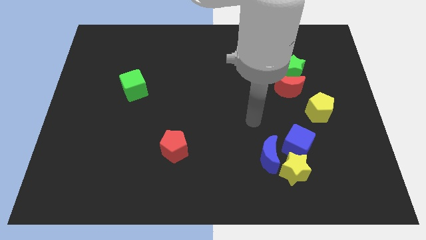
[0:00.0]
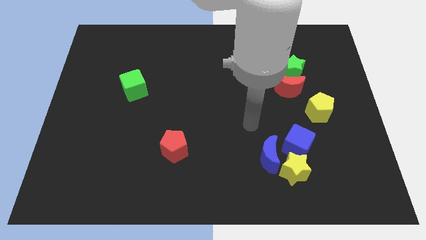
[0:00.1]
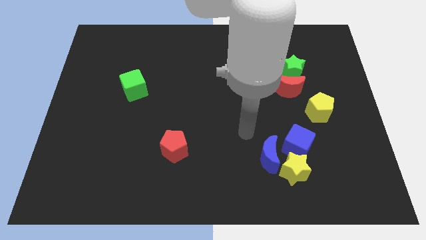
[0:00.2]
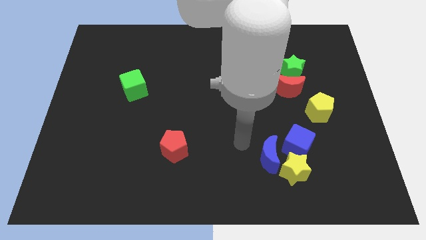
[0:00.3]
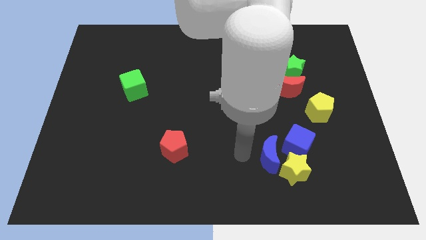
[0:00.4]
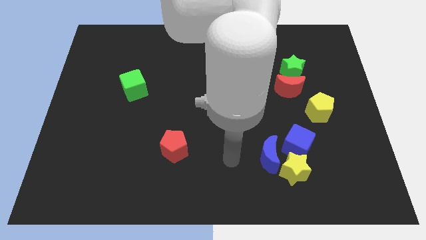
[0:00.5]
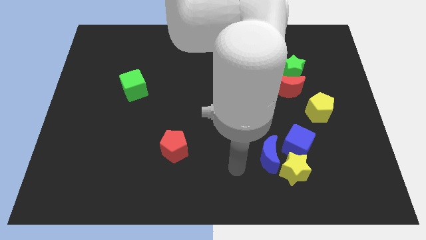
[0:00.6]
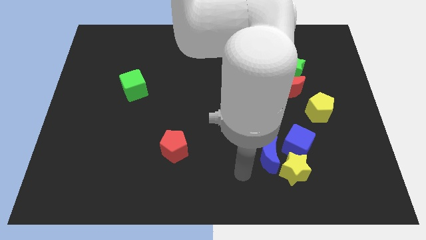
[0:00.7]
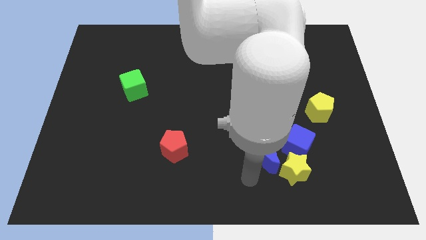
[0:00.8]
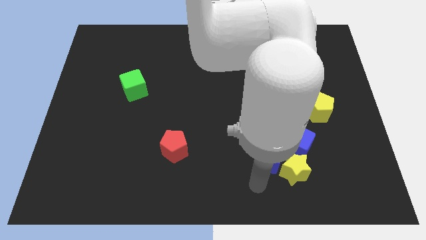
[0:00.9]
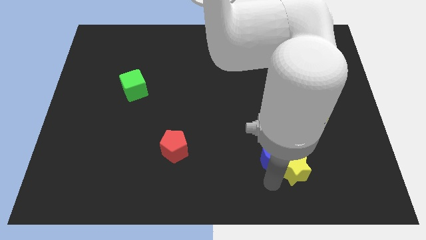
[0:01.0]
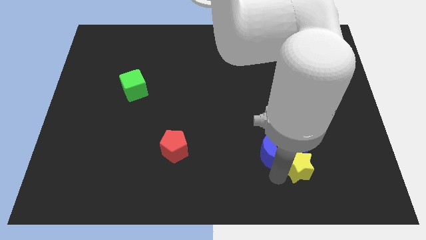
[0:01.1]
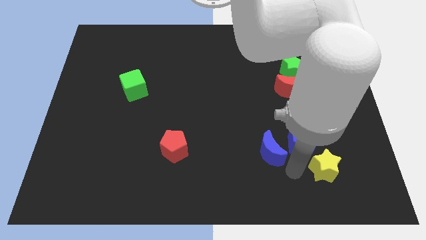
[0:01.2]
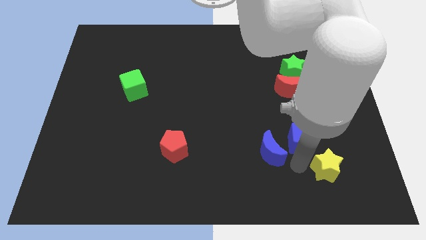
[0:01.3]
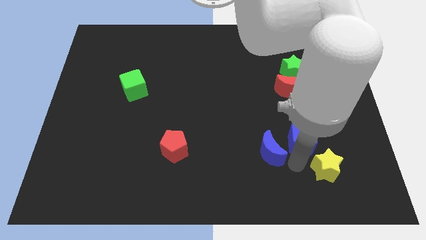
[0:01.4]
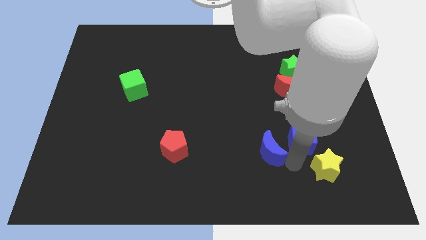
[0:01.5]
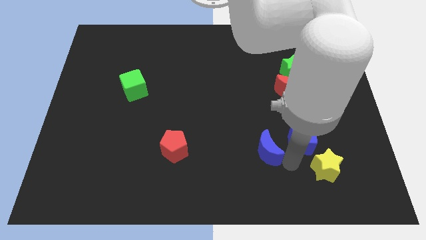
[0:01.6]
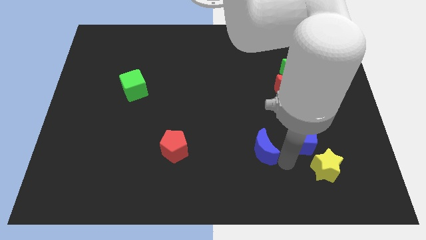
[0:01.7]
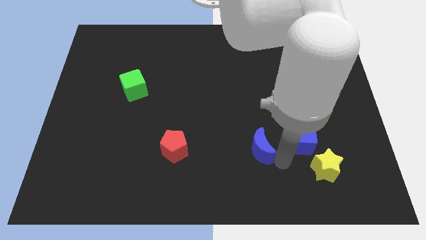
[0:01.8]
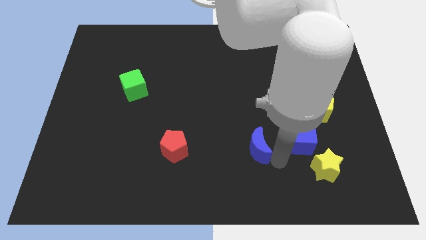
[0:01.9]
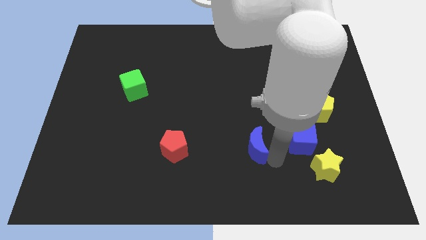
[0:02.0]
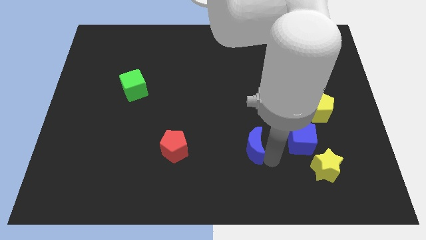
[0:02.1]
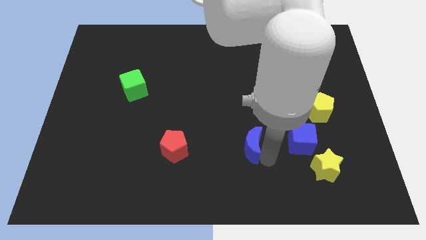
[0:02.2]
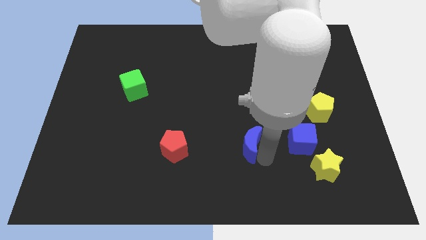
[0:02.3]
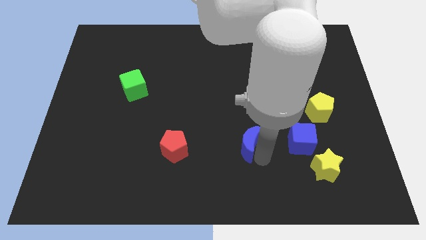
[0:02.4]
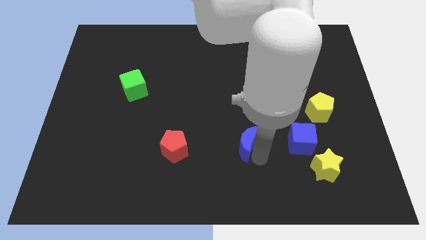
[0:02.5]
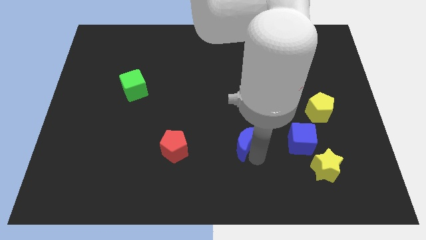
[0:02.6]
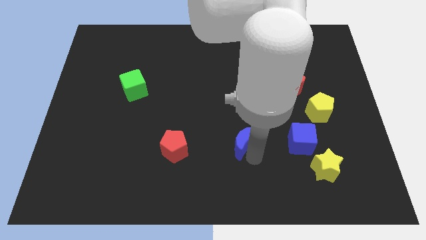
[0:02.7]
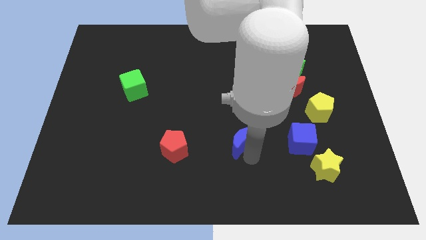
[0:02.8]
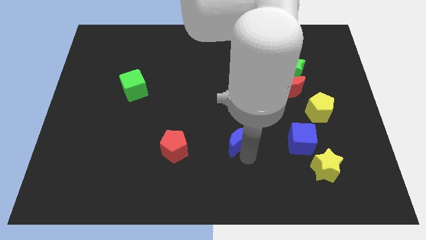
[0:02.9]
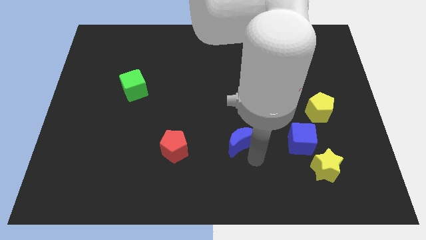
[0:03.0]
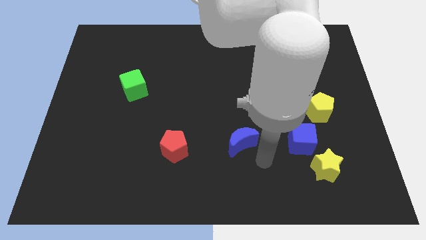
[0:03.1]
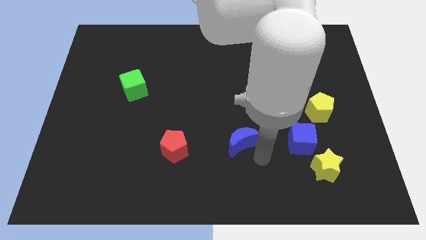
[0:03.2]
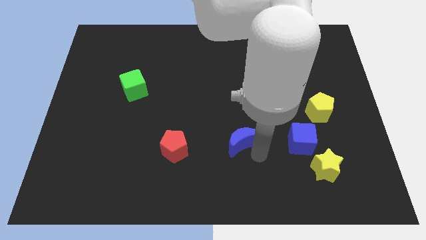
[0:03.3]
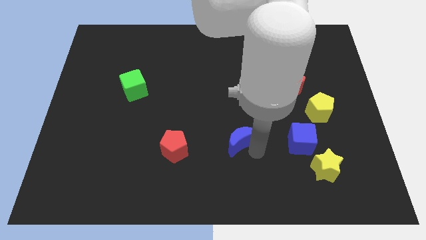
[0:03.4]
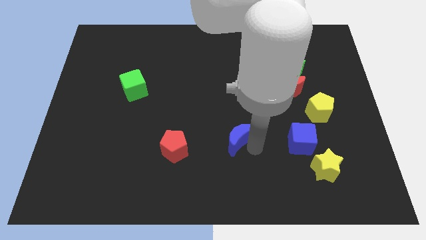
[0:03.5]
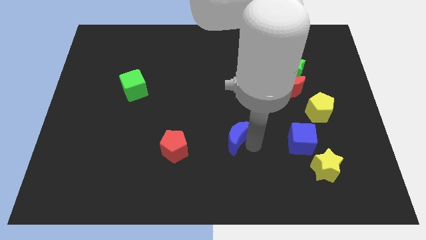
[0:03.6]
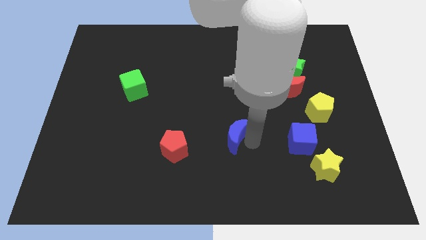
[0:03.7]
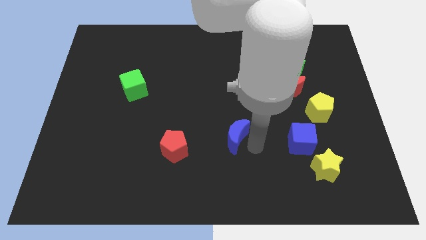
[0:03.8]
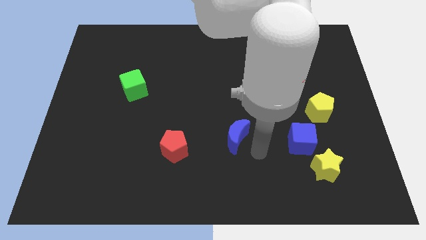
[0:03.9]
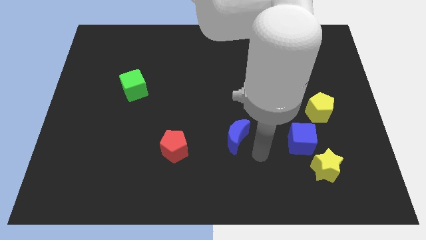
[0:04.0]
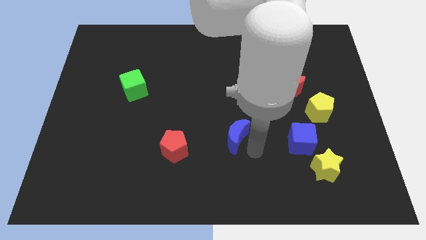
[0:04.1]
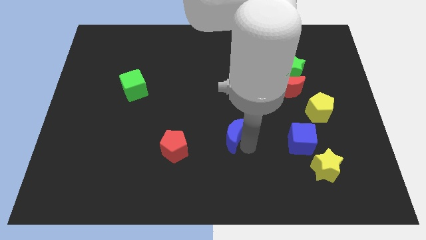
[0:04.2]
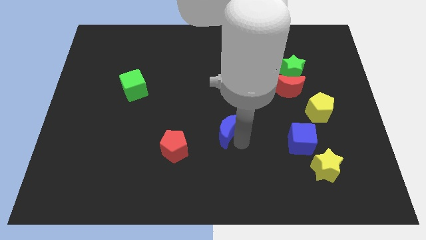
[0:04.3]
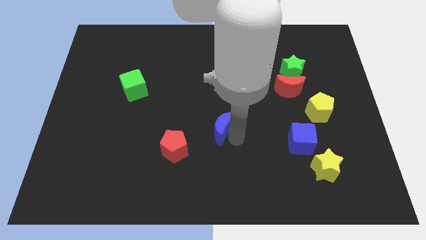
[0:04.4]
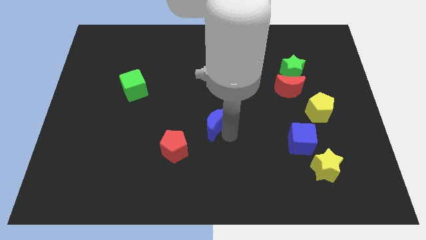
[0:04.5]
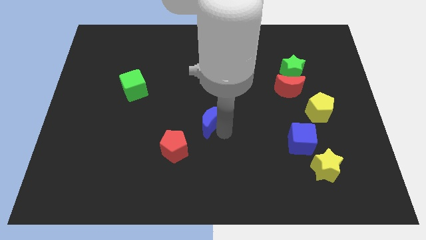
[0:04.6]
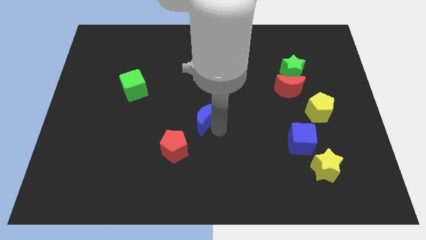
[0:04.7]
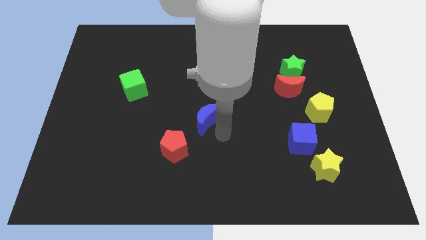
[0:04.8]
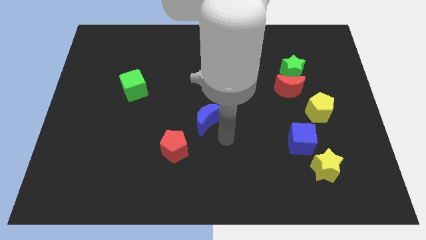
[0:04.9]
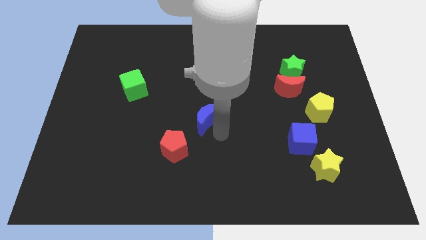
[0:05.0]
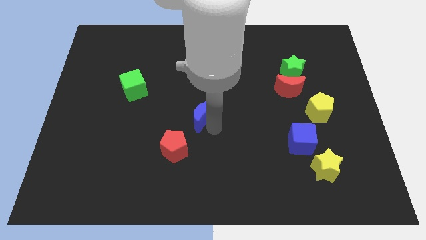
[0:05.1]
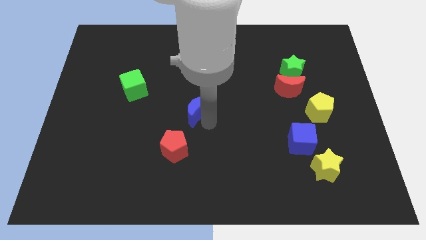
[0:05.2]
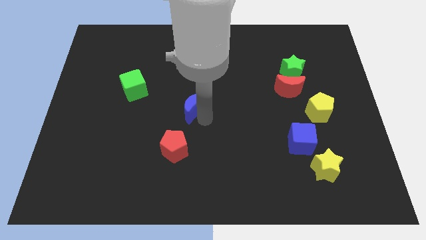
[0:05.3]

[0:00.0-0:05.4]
move the blue moon upwards and left diagonally

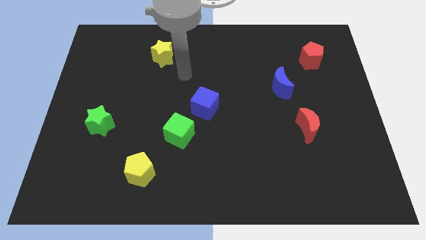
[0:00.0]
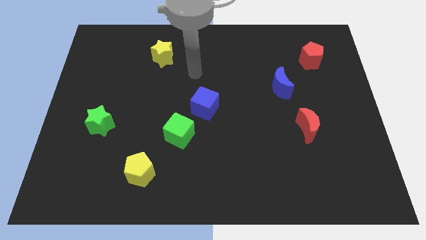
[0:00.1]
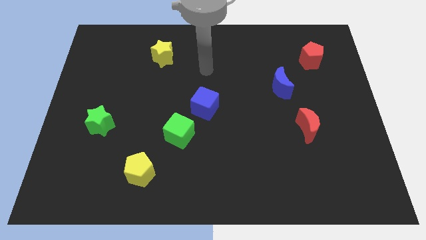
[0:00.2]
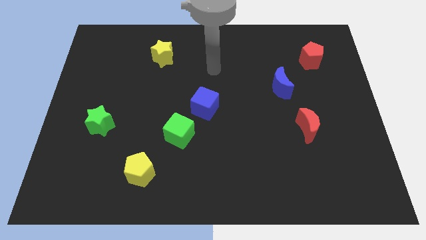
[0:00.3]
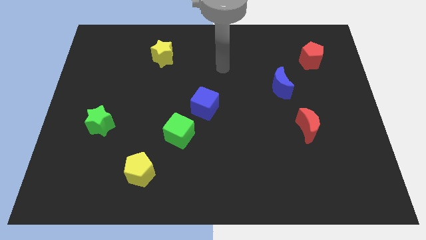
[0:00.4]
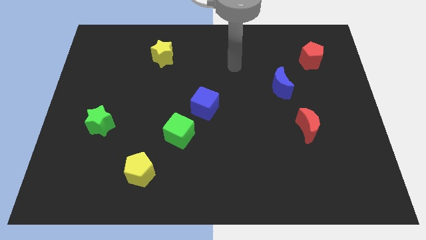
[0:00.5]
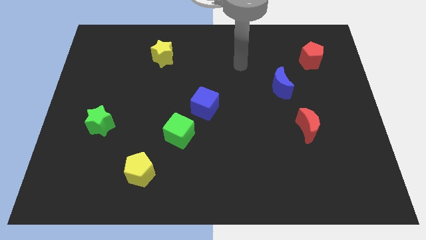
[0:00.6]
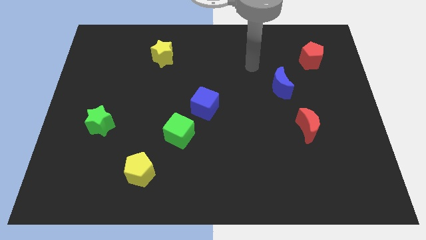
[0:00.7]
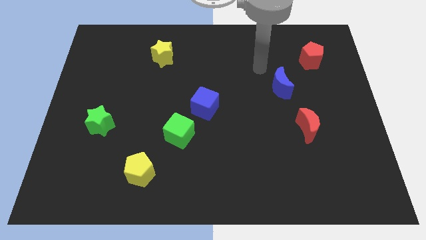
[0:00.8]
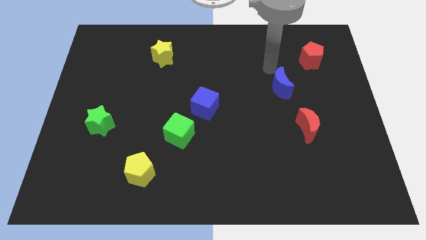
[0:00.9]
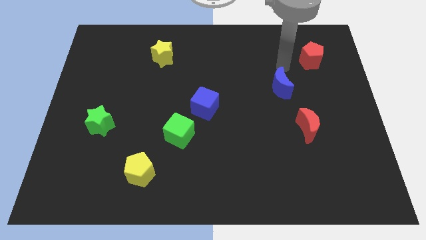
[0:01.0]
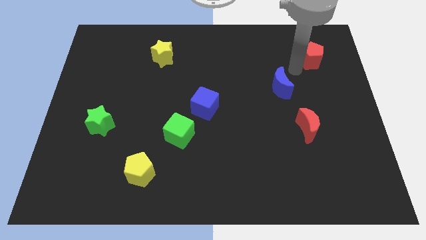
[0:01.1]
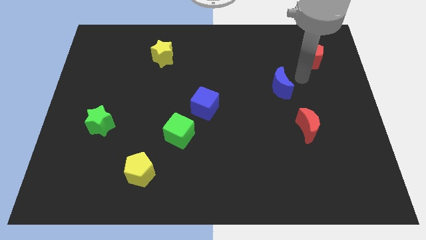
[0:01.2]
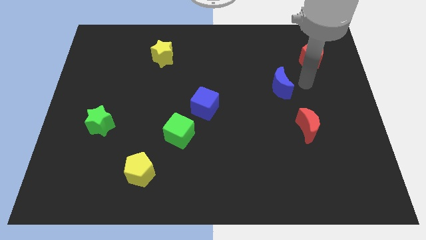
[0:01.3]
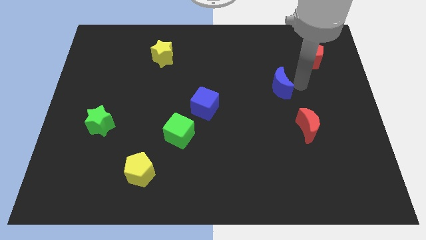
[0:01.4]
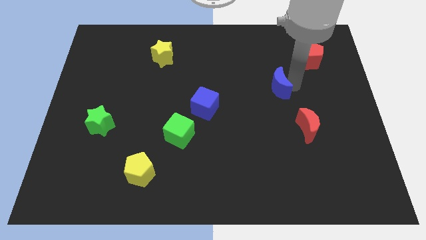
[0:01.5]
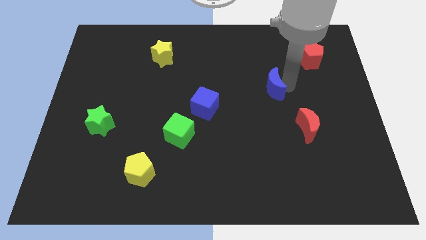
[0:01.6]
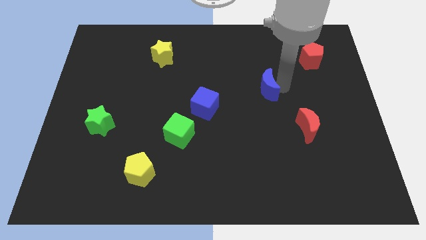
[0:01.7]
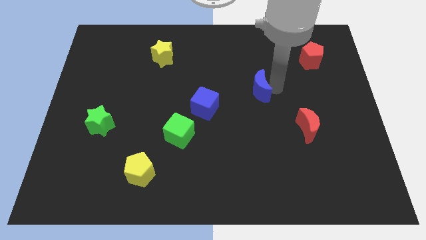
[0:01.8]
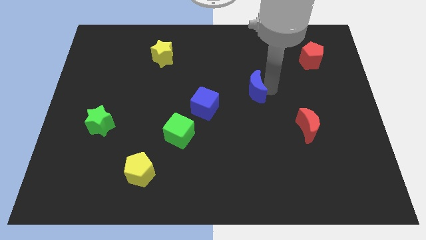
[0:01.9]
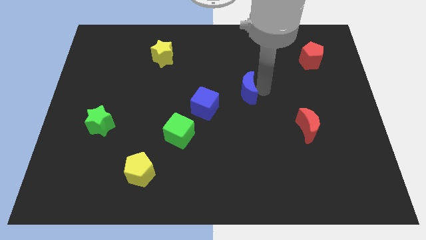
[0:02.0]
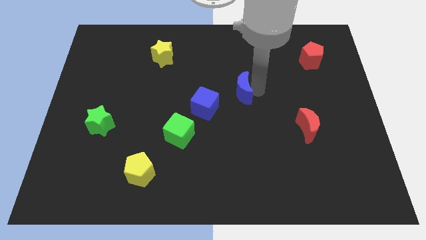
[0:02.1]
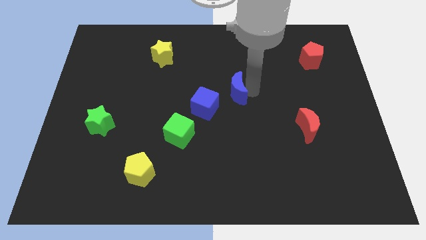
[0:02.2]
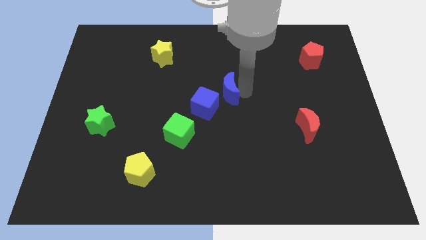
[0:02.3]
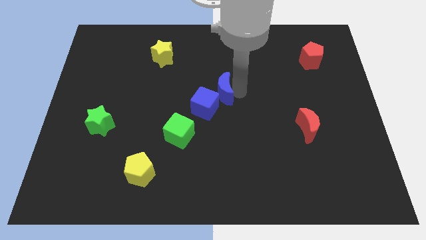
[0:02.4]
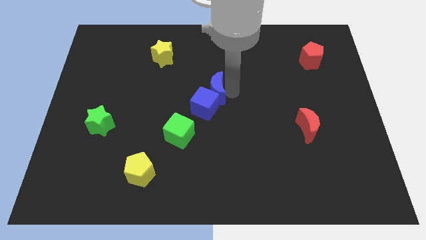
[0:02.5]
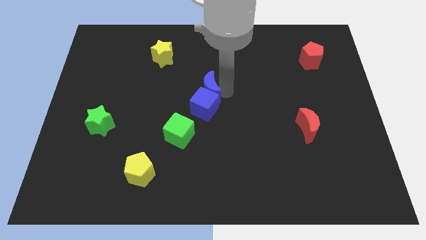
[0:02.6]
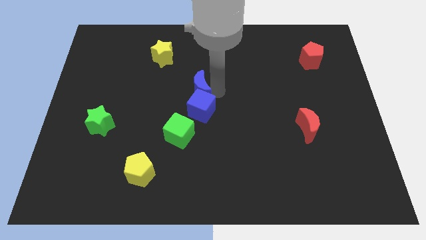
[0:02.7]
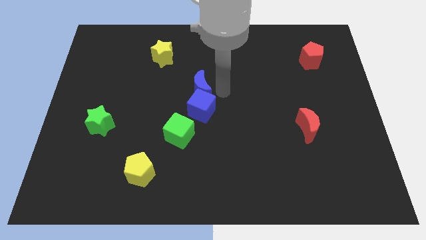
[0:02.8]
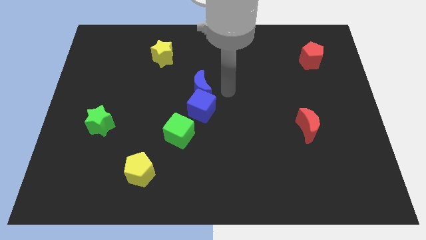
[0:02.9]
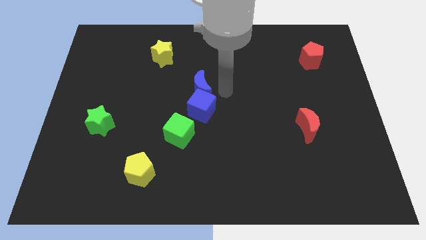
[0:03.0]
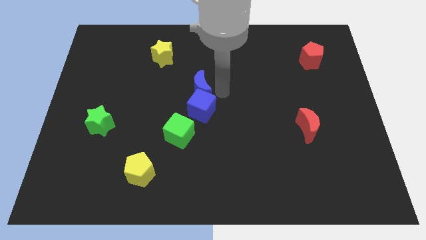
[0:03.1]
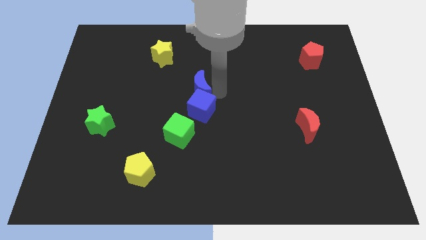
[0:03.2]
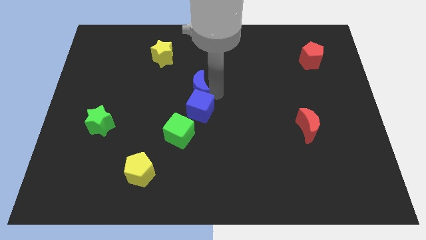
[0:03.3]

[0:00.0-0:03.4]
move the blue moon left
